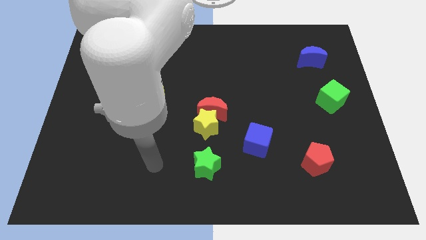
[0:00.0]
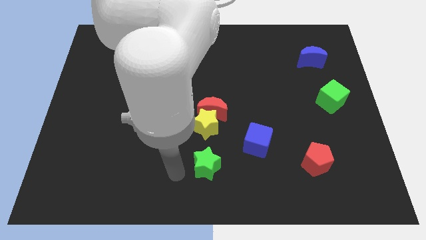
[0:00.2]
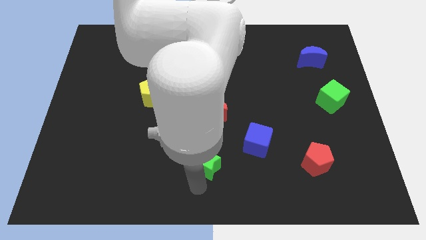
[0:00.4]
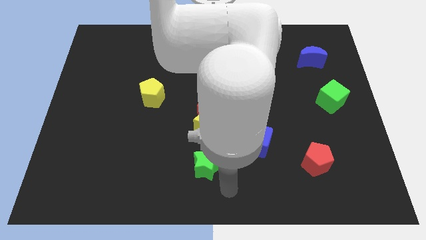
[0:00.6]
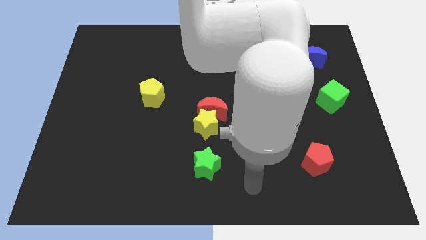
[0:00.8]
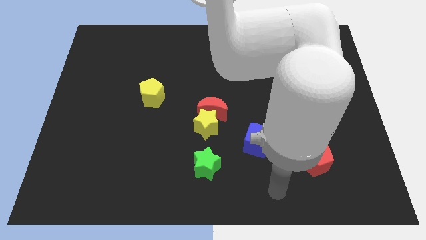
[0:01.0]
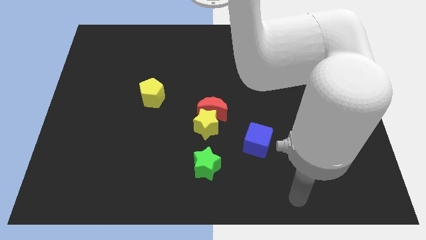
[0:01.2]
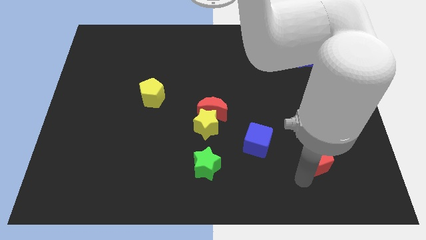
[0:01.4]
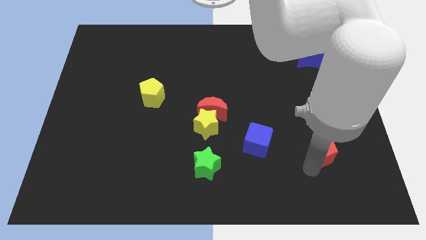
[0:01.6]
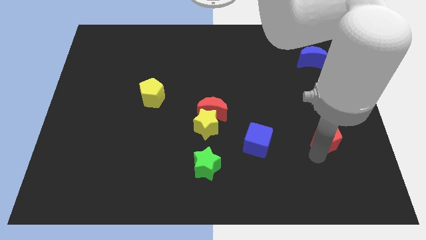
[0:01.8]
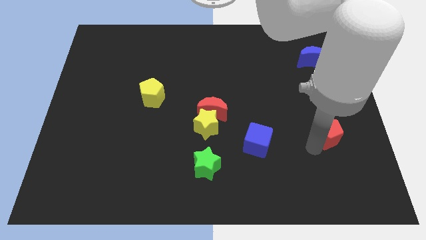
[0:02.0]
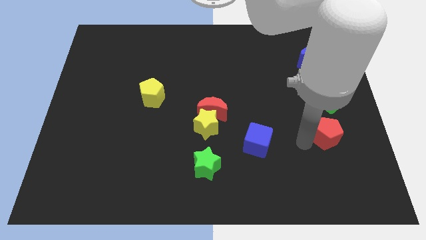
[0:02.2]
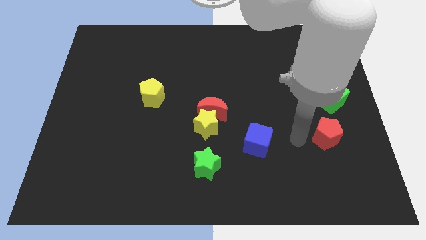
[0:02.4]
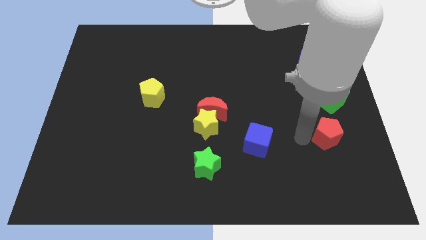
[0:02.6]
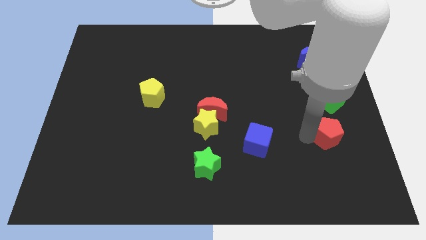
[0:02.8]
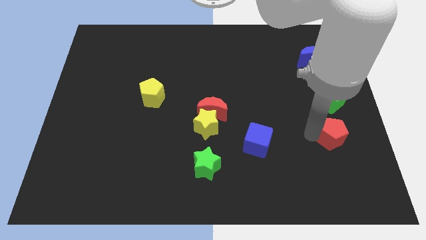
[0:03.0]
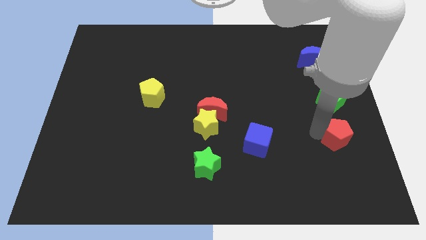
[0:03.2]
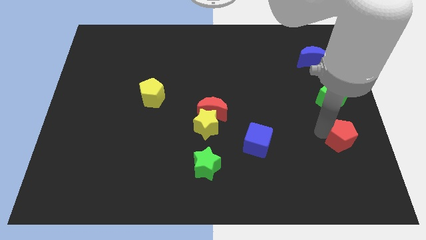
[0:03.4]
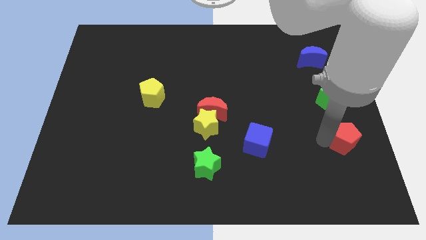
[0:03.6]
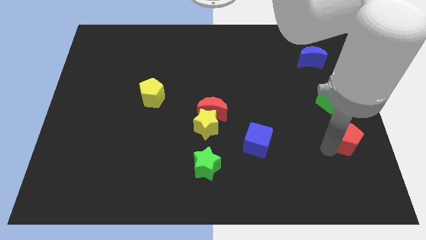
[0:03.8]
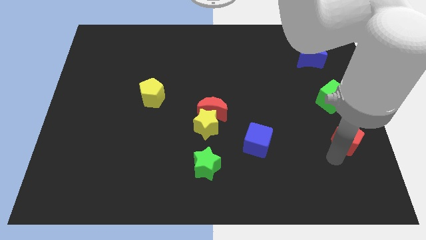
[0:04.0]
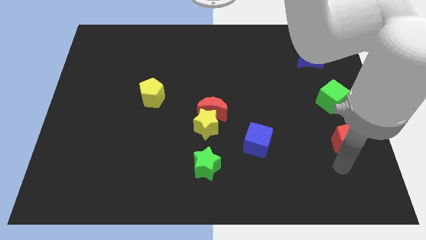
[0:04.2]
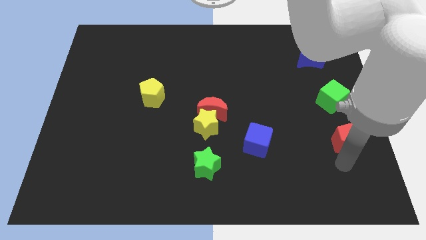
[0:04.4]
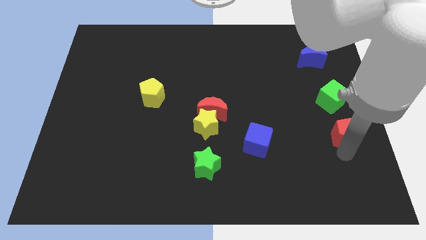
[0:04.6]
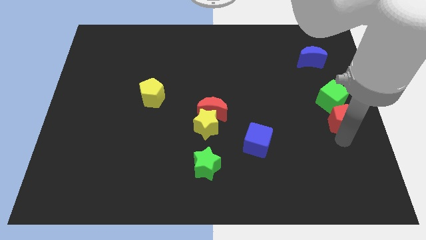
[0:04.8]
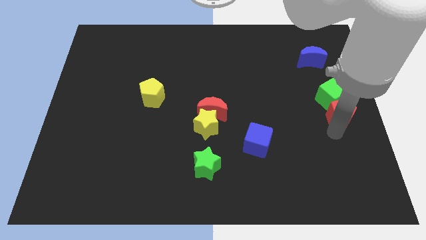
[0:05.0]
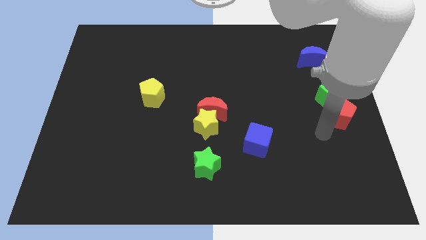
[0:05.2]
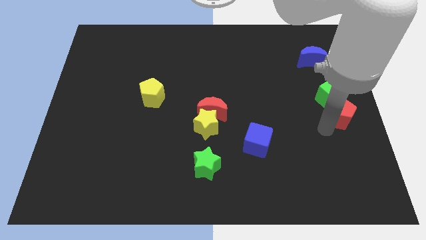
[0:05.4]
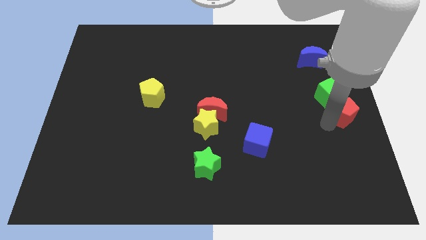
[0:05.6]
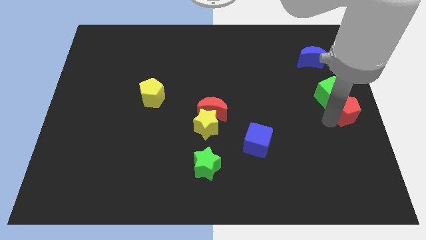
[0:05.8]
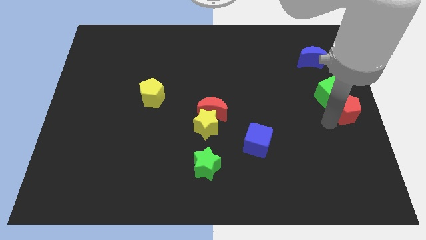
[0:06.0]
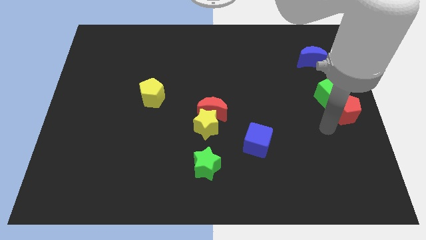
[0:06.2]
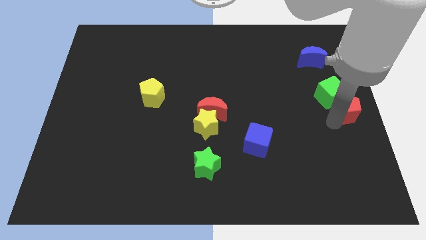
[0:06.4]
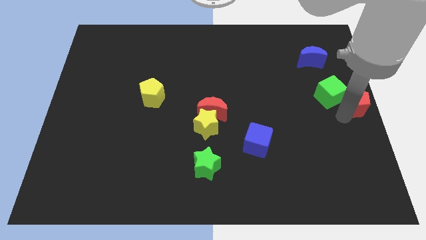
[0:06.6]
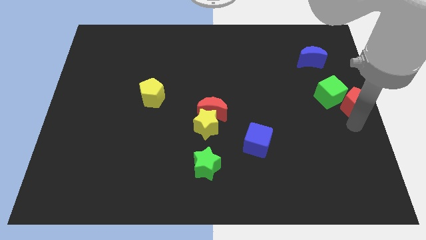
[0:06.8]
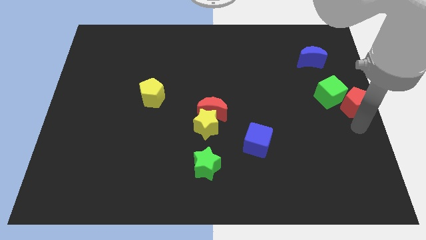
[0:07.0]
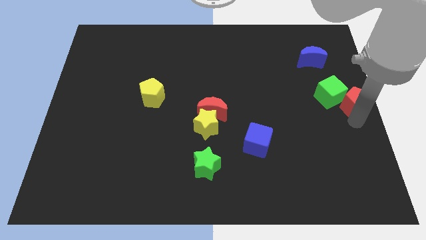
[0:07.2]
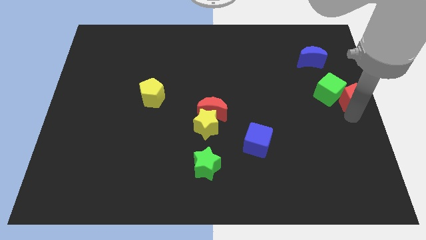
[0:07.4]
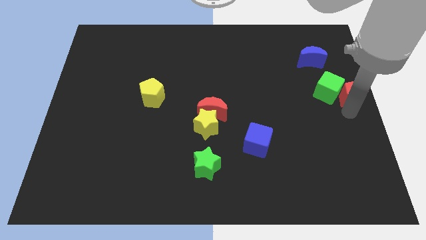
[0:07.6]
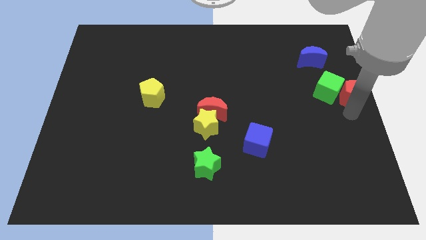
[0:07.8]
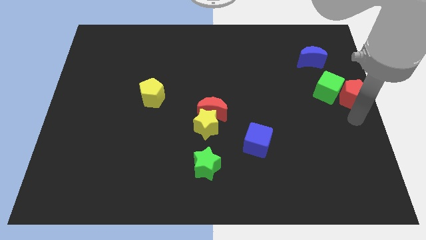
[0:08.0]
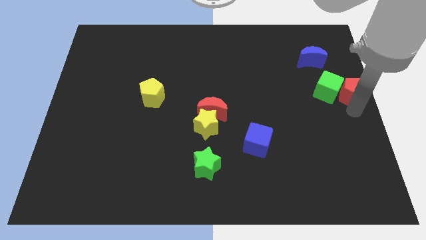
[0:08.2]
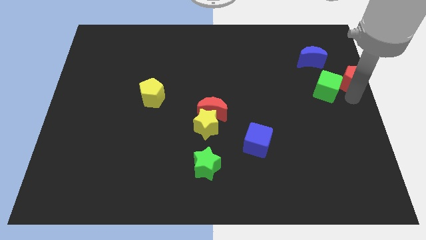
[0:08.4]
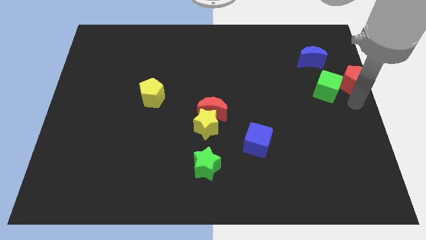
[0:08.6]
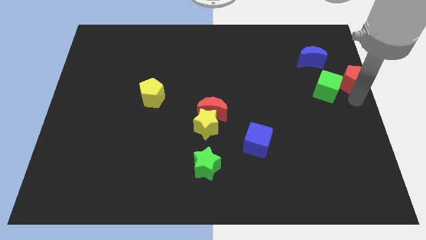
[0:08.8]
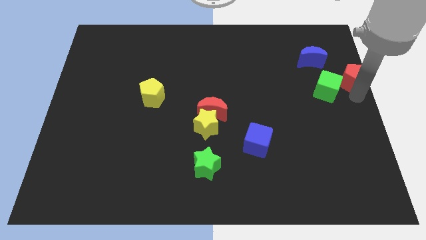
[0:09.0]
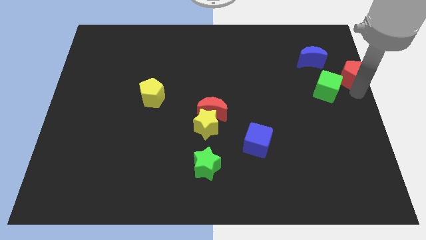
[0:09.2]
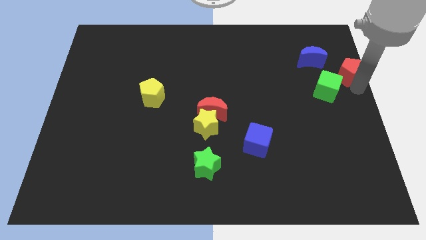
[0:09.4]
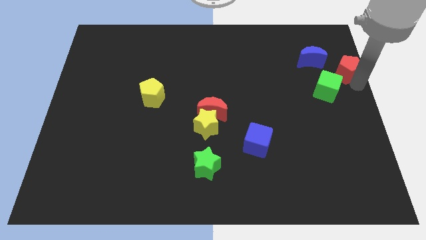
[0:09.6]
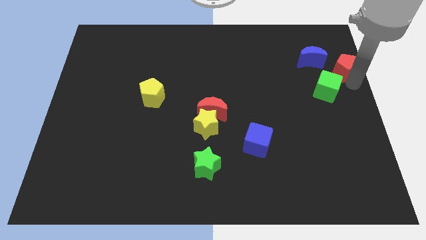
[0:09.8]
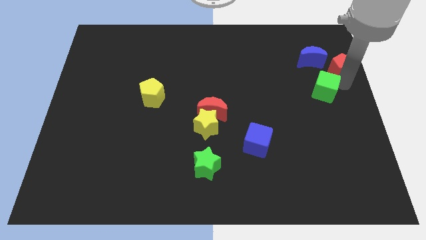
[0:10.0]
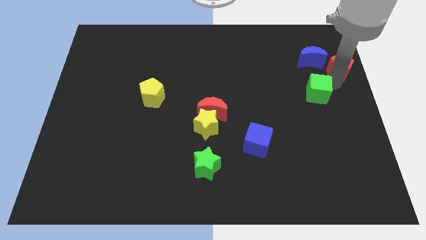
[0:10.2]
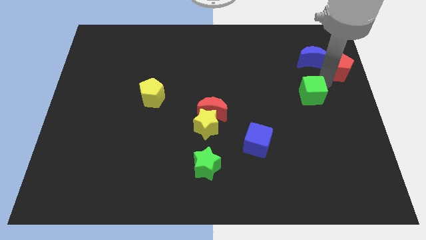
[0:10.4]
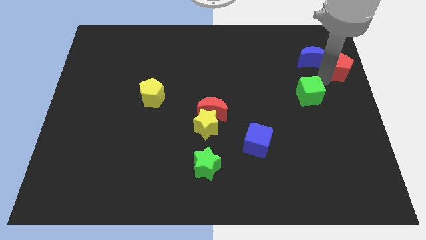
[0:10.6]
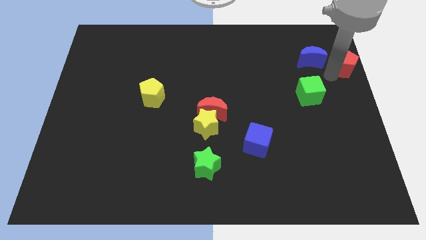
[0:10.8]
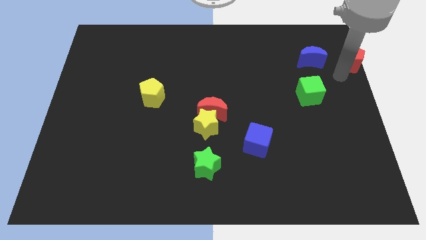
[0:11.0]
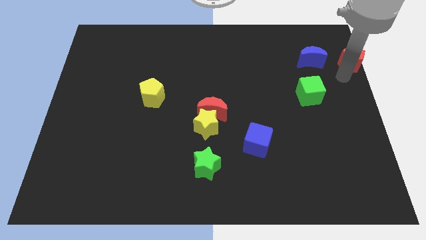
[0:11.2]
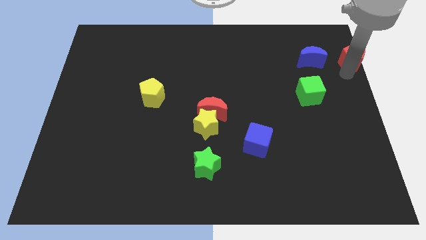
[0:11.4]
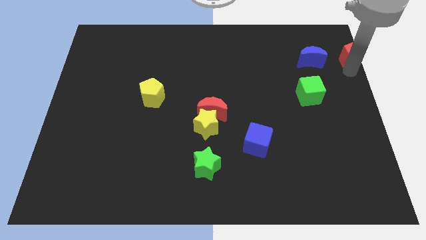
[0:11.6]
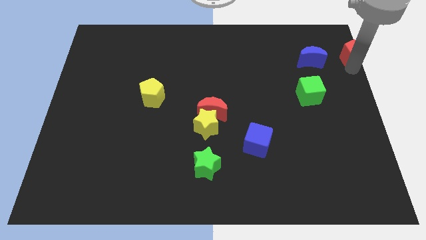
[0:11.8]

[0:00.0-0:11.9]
slide the red pentagon to the upper right corner

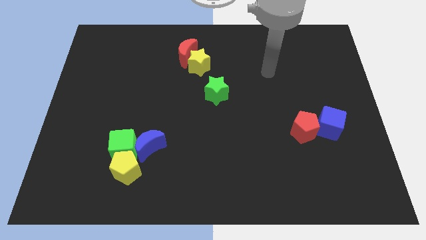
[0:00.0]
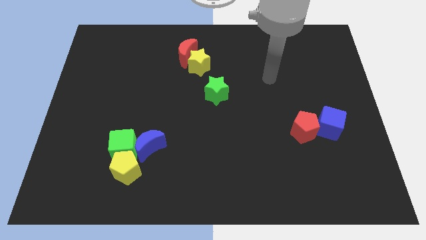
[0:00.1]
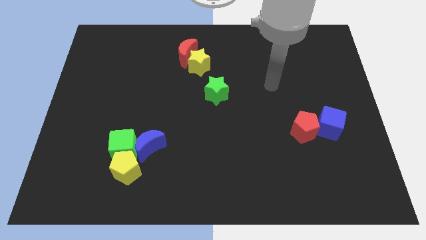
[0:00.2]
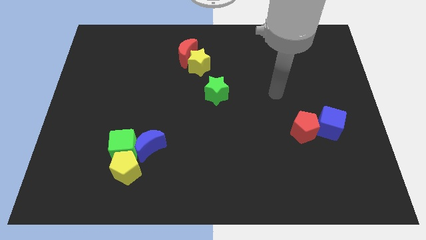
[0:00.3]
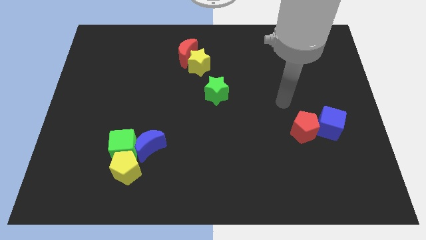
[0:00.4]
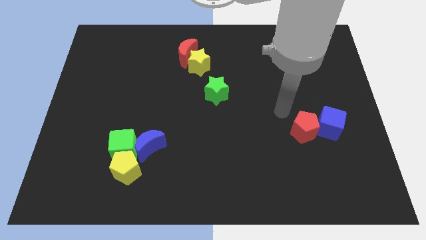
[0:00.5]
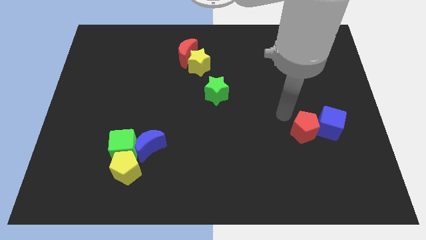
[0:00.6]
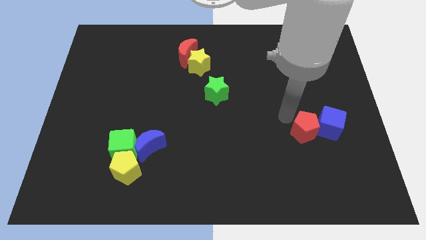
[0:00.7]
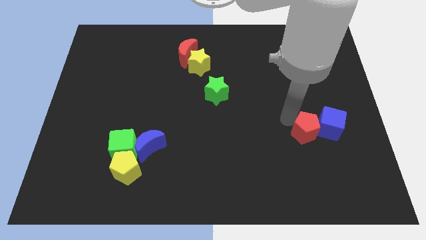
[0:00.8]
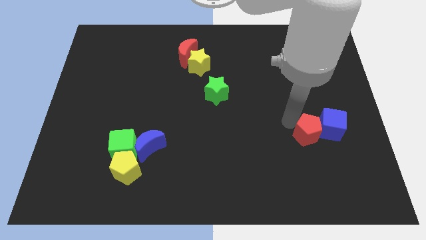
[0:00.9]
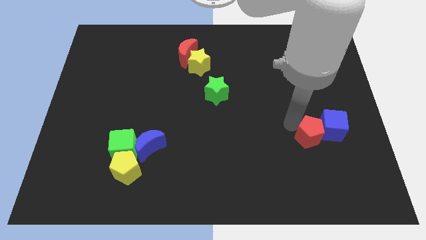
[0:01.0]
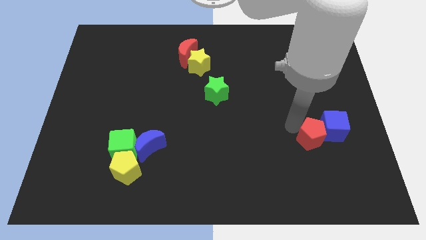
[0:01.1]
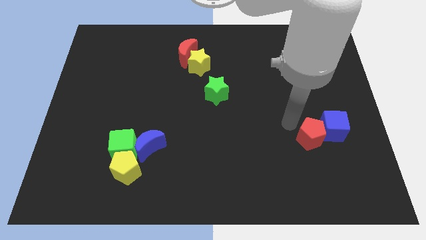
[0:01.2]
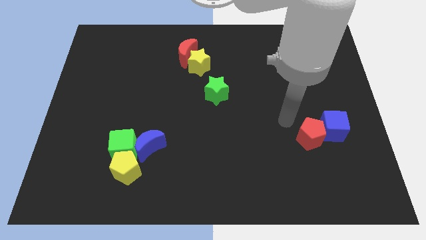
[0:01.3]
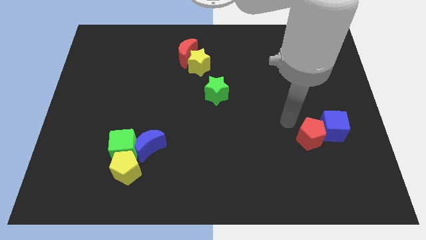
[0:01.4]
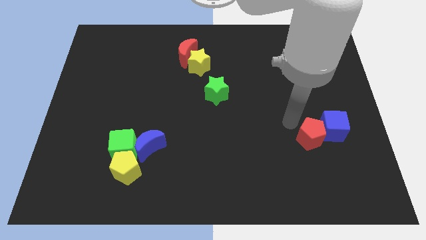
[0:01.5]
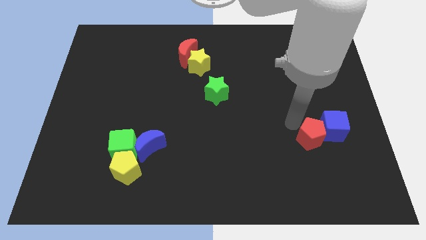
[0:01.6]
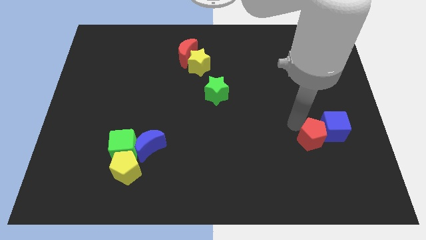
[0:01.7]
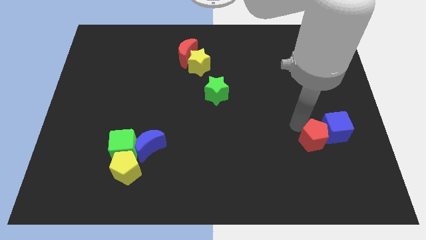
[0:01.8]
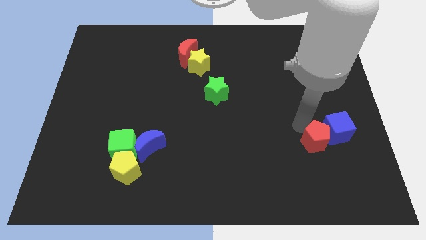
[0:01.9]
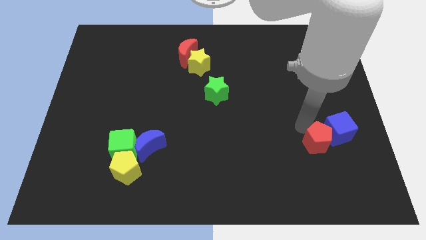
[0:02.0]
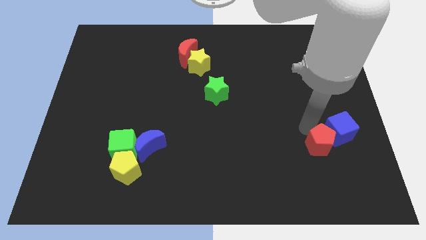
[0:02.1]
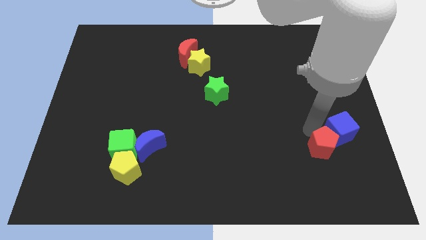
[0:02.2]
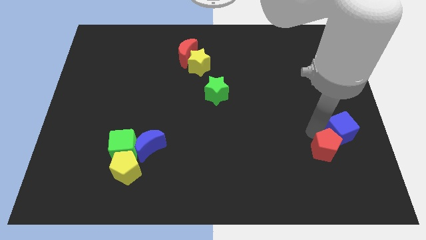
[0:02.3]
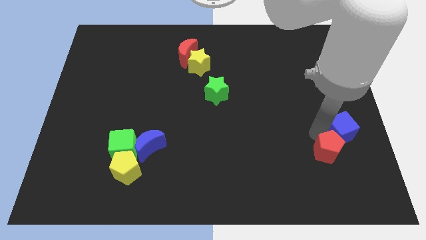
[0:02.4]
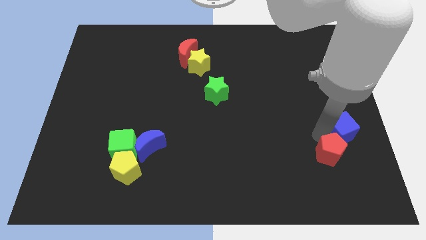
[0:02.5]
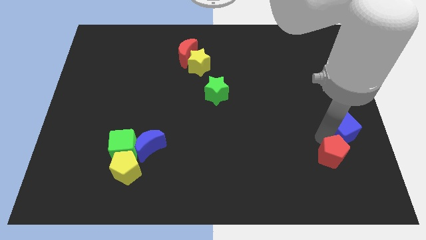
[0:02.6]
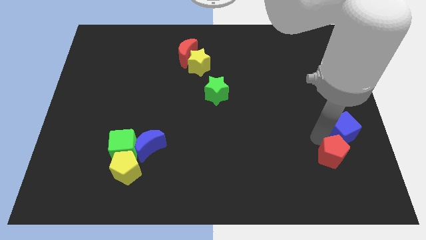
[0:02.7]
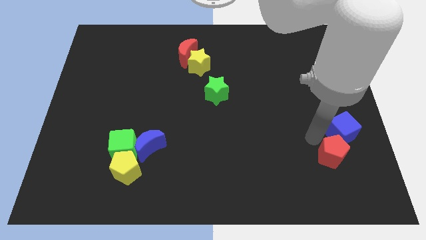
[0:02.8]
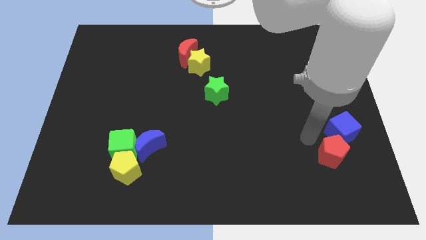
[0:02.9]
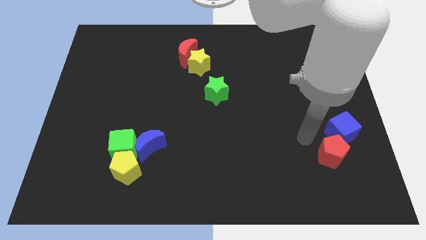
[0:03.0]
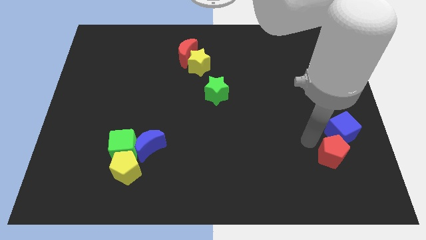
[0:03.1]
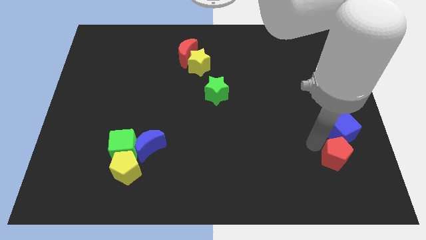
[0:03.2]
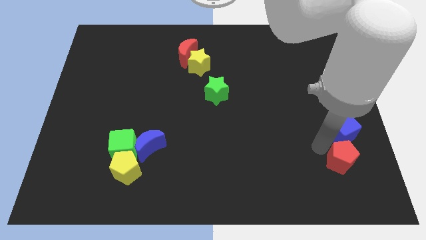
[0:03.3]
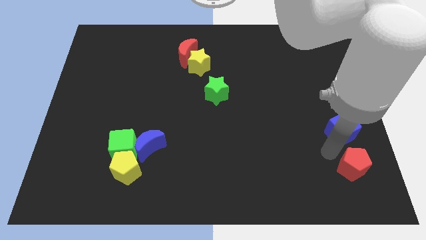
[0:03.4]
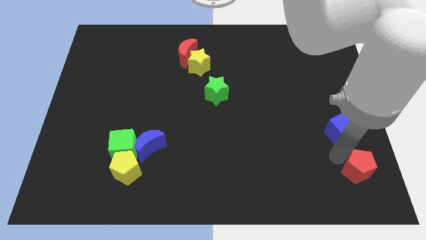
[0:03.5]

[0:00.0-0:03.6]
move the red pentagon to the bottom right
